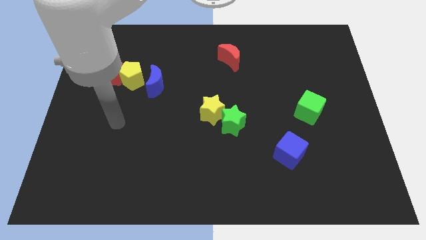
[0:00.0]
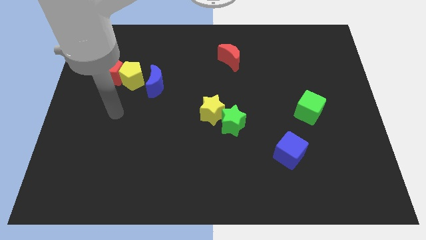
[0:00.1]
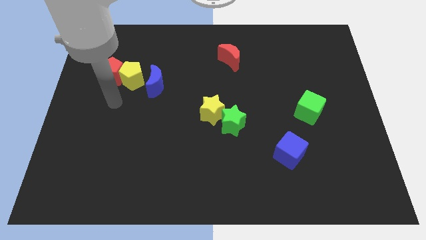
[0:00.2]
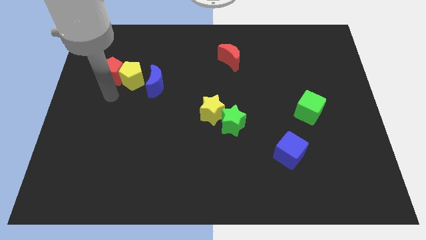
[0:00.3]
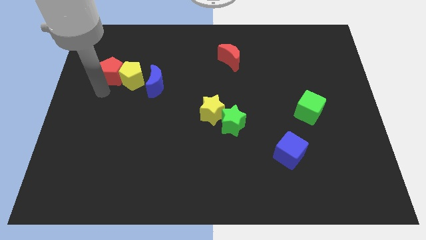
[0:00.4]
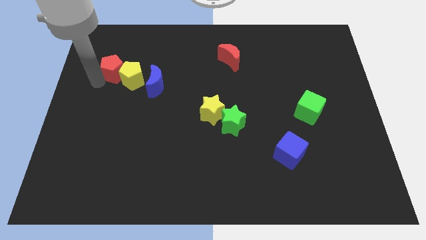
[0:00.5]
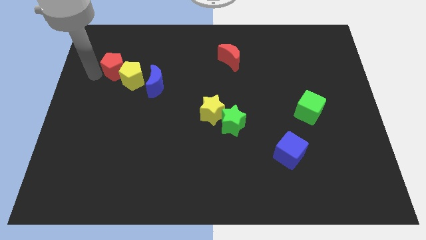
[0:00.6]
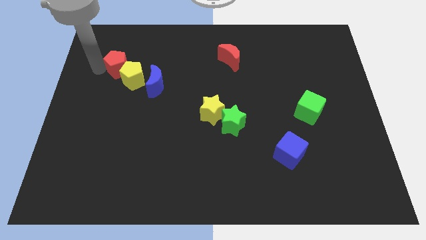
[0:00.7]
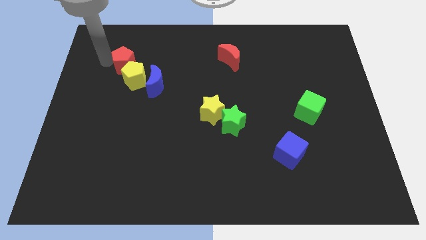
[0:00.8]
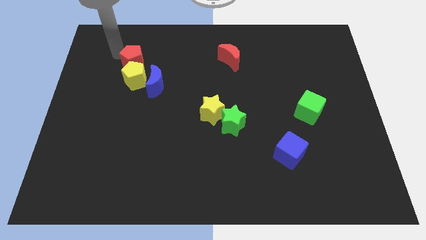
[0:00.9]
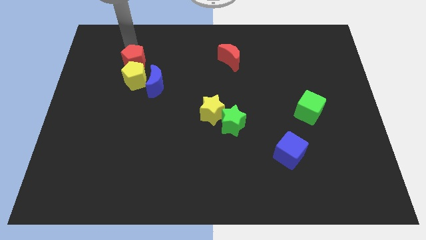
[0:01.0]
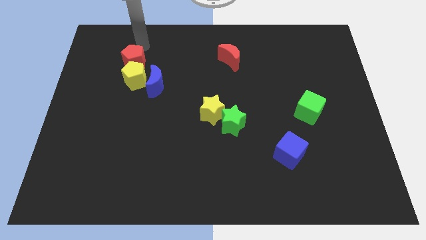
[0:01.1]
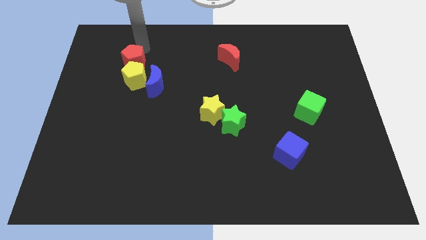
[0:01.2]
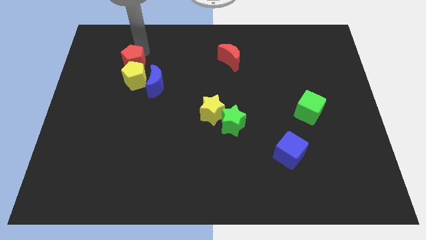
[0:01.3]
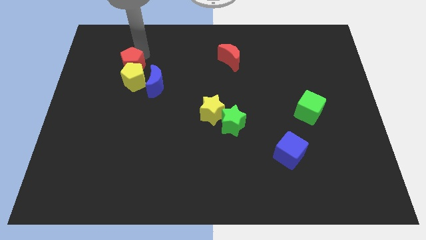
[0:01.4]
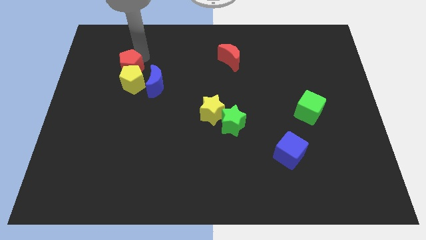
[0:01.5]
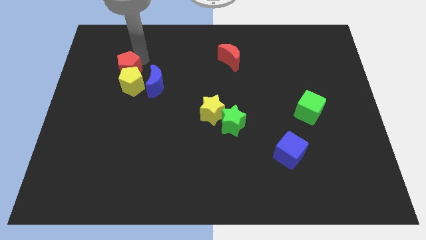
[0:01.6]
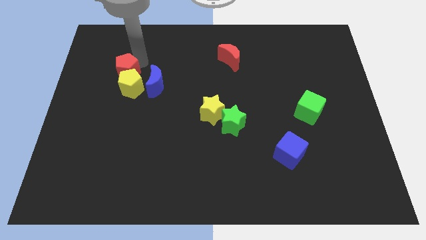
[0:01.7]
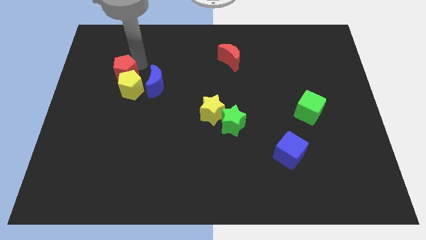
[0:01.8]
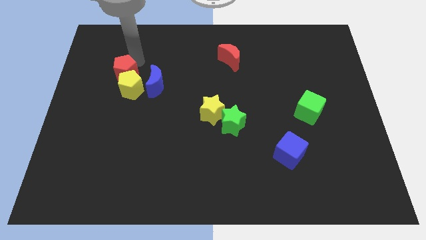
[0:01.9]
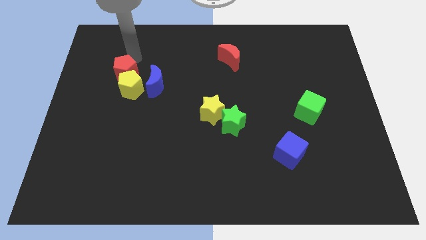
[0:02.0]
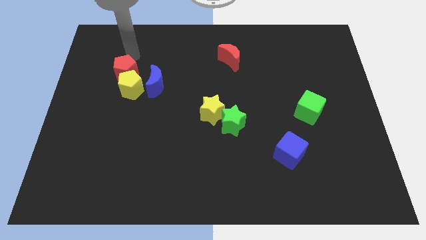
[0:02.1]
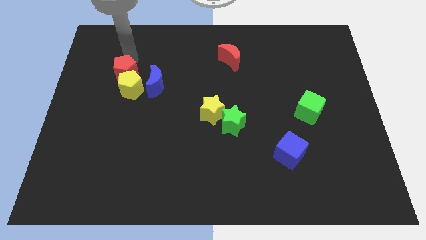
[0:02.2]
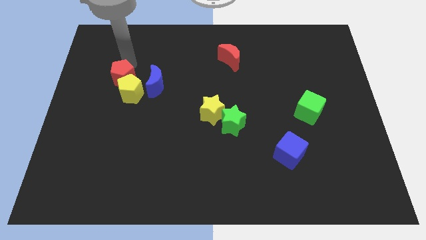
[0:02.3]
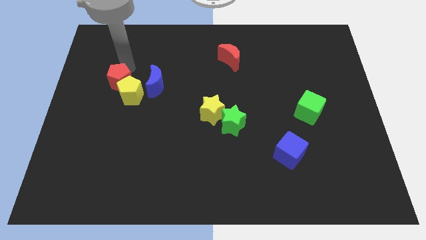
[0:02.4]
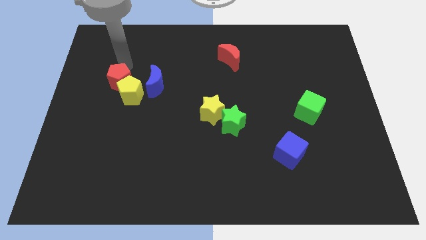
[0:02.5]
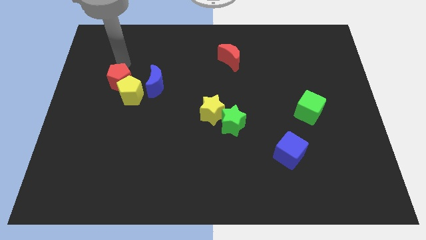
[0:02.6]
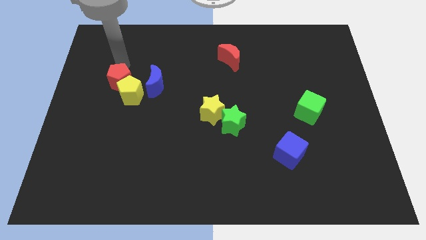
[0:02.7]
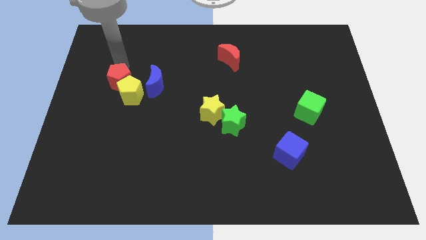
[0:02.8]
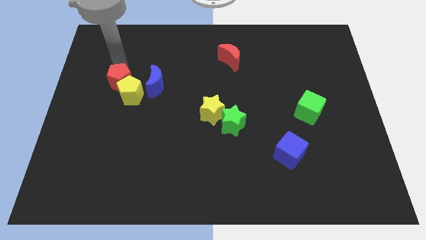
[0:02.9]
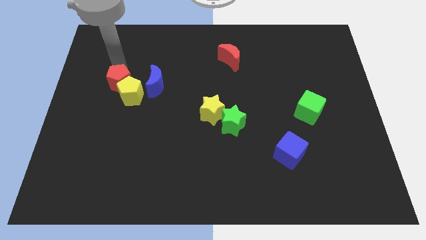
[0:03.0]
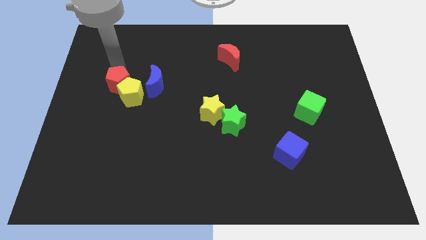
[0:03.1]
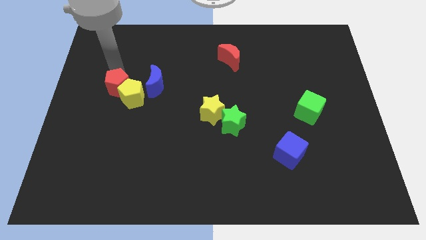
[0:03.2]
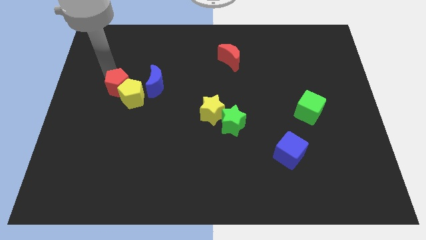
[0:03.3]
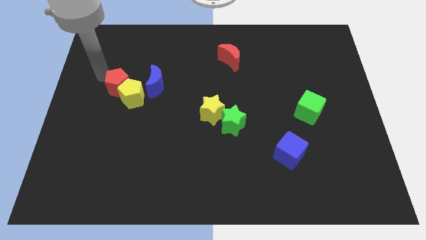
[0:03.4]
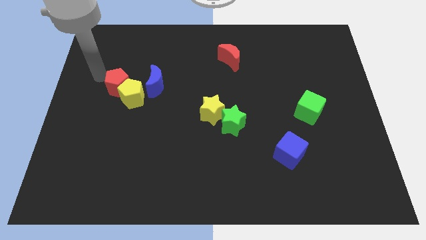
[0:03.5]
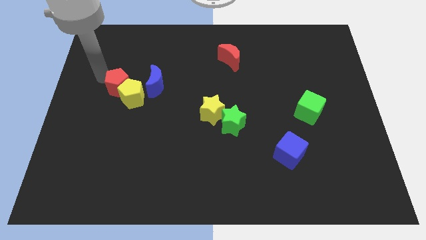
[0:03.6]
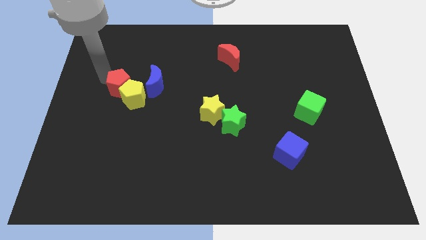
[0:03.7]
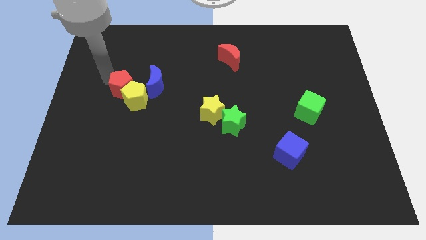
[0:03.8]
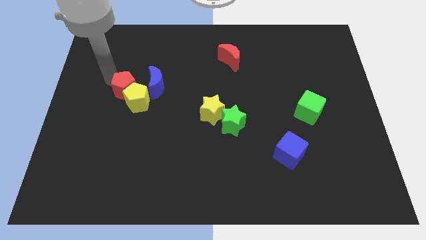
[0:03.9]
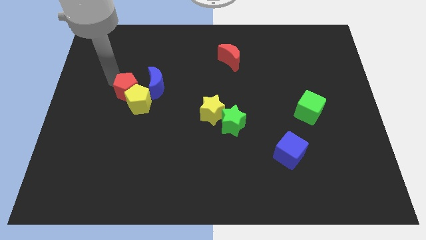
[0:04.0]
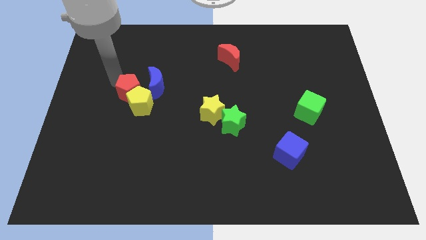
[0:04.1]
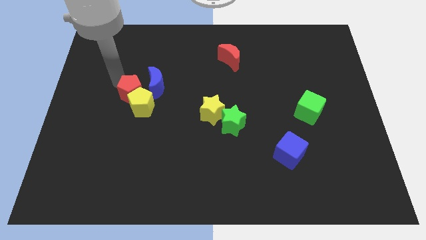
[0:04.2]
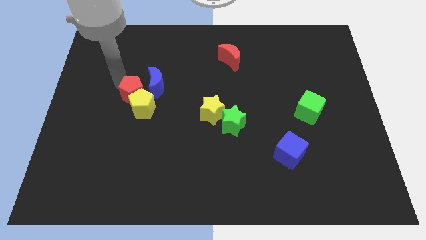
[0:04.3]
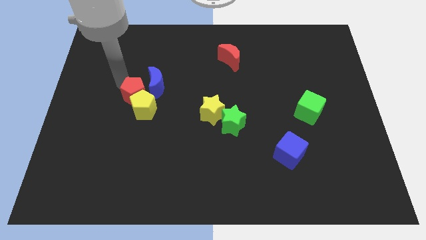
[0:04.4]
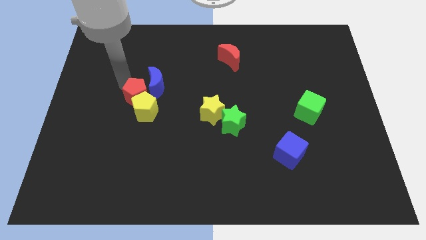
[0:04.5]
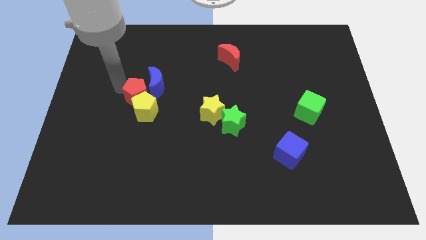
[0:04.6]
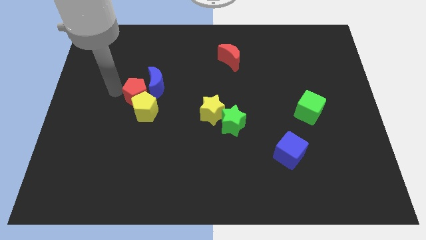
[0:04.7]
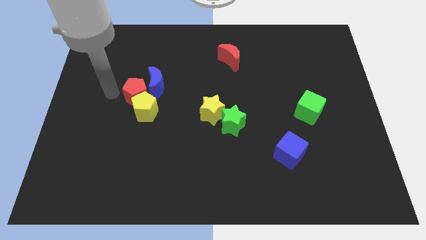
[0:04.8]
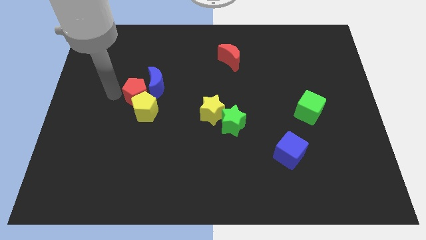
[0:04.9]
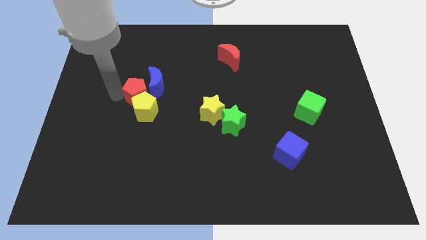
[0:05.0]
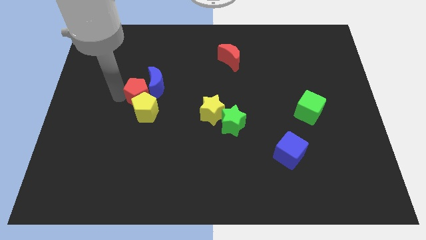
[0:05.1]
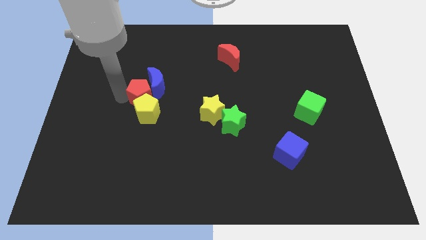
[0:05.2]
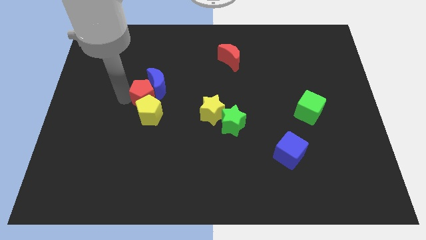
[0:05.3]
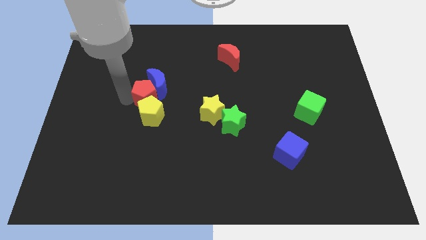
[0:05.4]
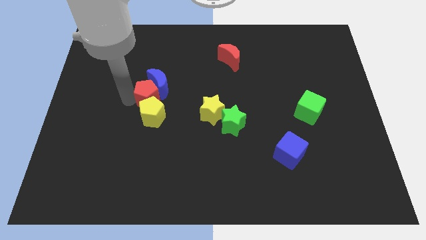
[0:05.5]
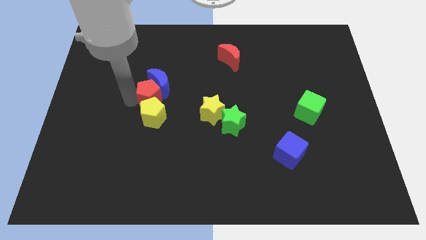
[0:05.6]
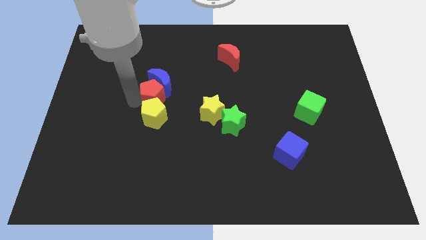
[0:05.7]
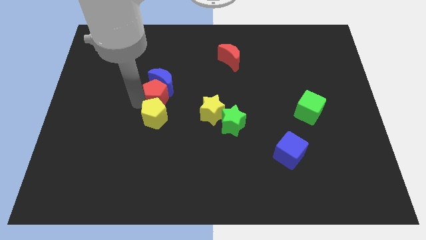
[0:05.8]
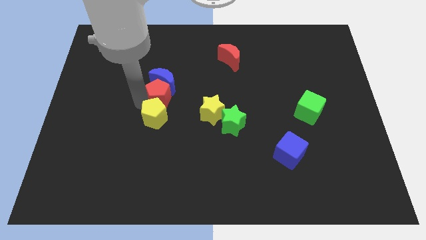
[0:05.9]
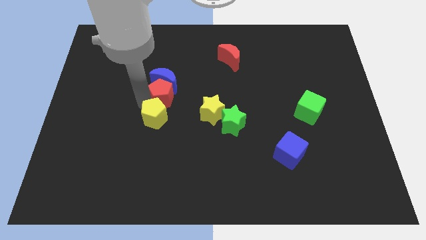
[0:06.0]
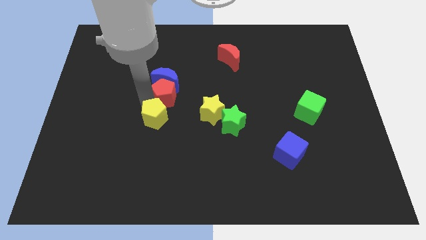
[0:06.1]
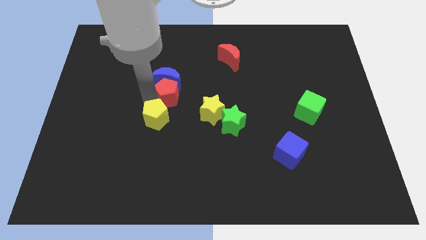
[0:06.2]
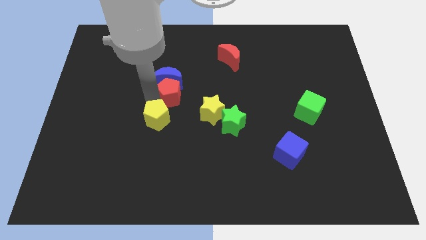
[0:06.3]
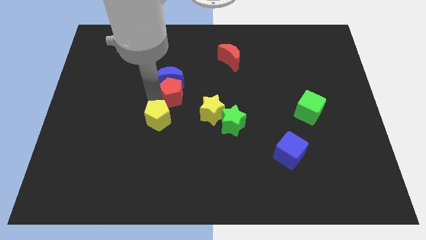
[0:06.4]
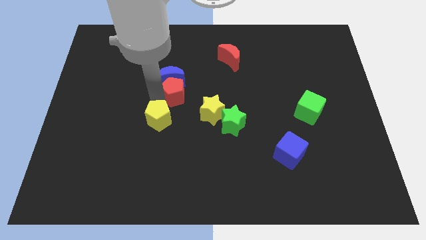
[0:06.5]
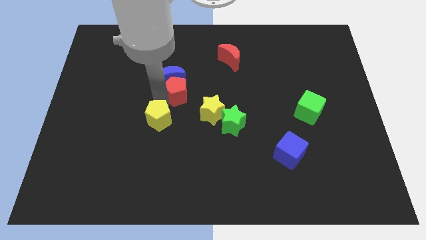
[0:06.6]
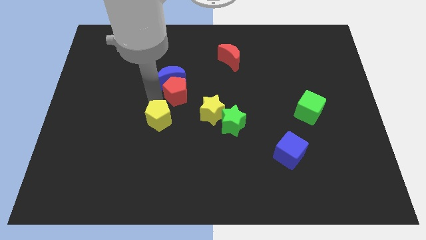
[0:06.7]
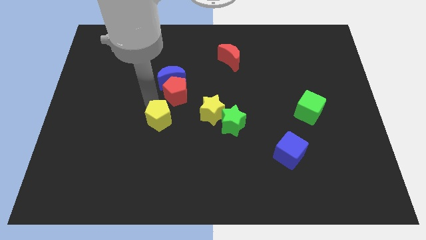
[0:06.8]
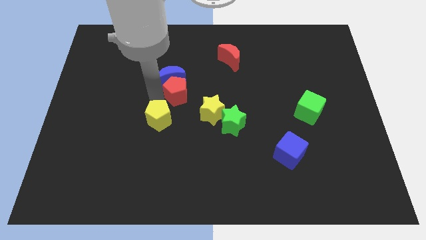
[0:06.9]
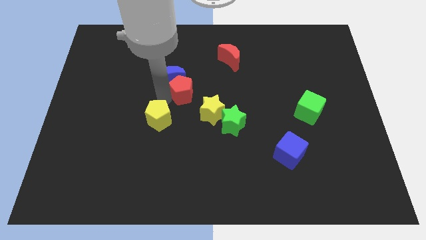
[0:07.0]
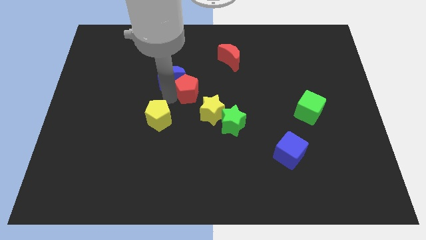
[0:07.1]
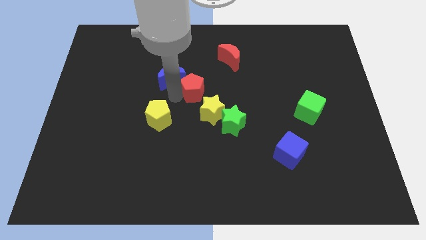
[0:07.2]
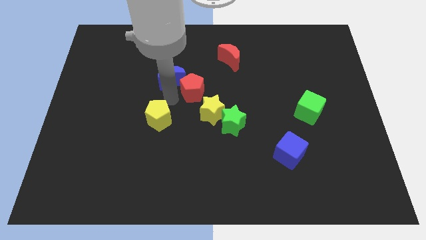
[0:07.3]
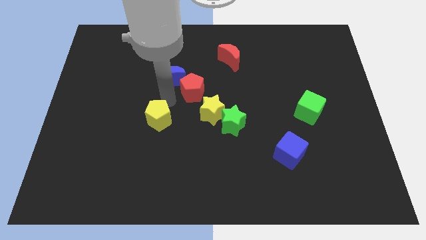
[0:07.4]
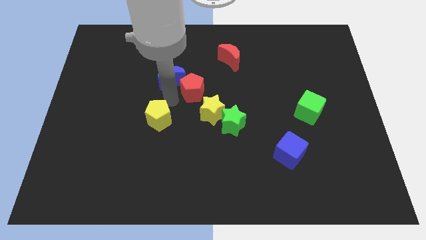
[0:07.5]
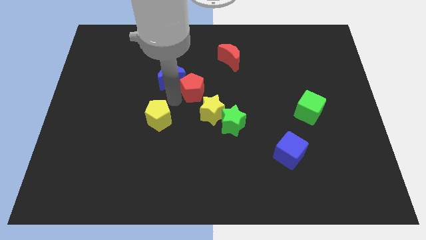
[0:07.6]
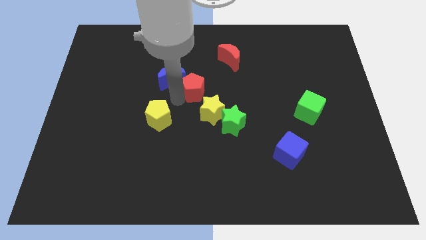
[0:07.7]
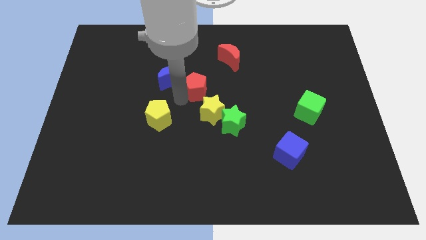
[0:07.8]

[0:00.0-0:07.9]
push the red pentagon right

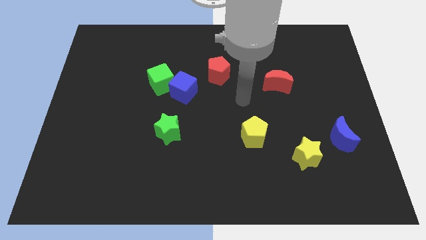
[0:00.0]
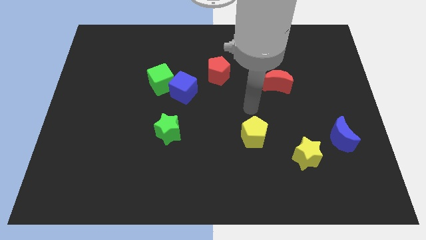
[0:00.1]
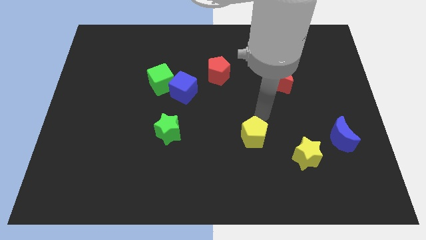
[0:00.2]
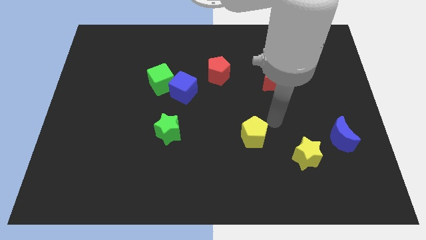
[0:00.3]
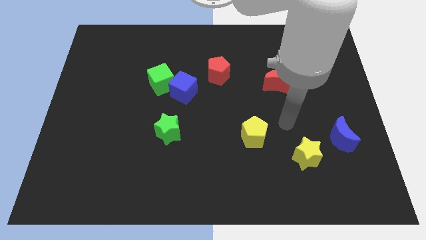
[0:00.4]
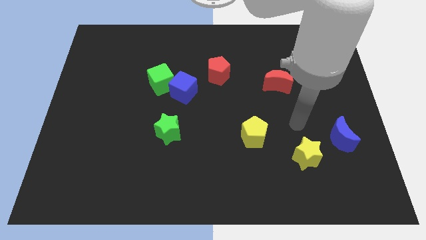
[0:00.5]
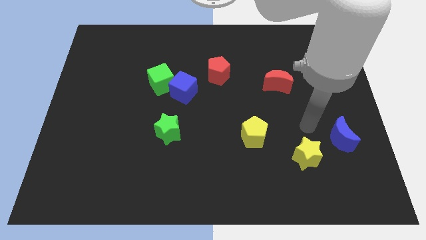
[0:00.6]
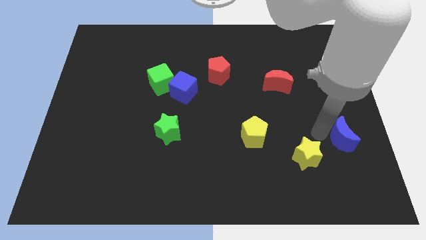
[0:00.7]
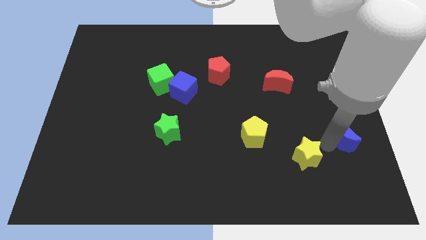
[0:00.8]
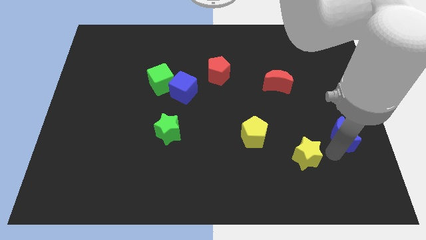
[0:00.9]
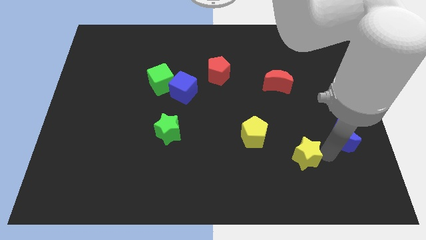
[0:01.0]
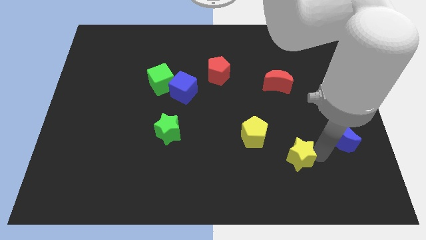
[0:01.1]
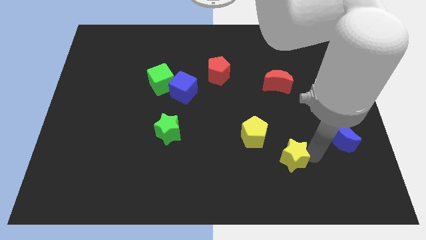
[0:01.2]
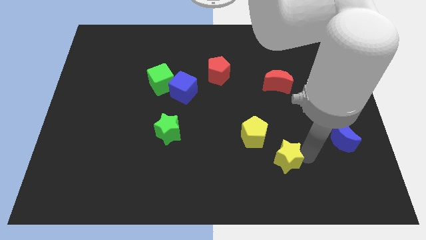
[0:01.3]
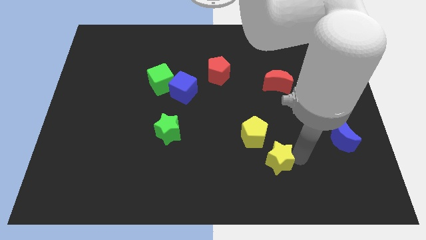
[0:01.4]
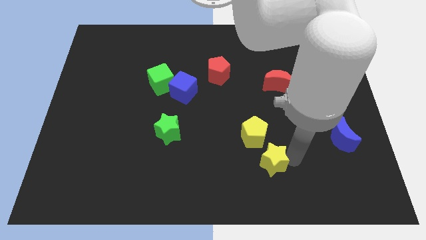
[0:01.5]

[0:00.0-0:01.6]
push the yellow star left somewhat
